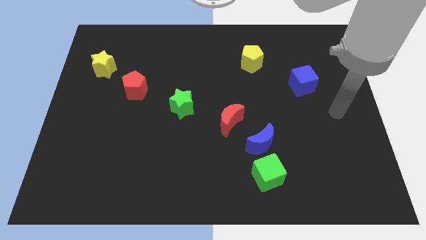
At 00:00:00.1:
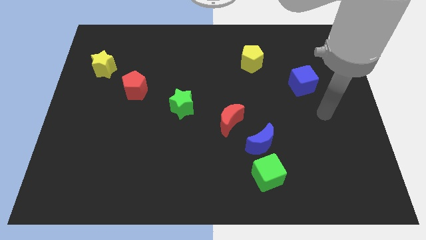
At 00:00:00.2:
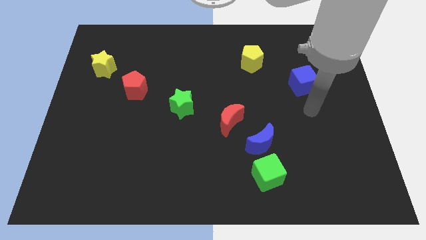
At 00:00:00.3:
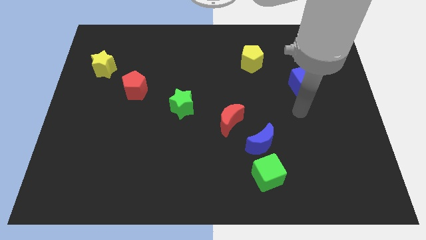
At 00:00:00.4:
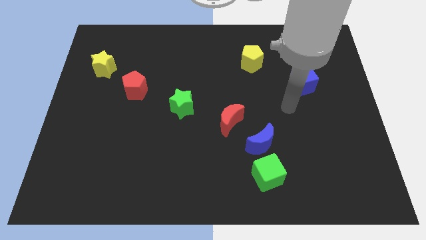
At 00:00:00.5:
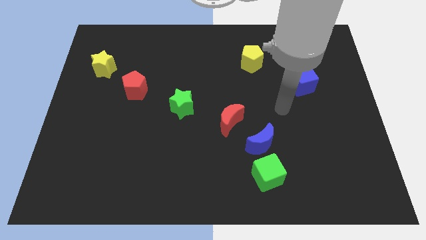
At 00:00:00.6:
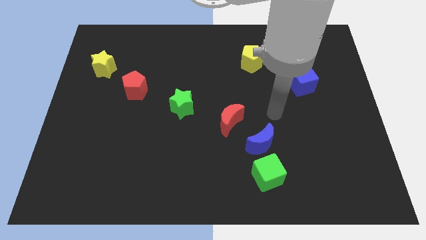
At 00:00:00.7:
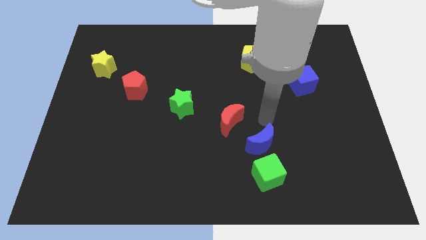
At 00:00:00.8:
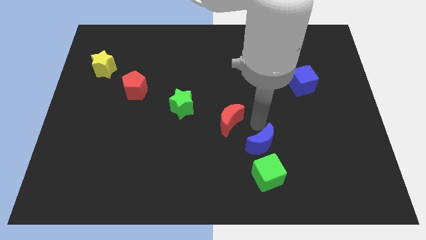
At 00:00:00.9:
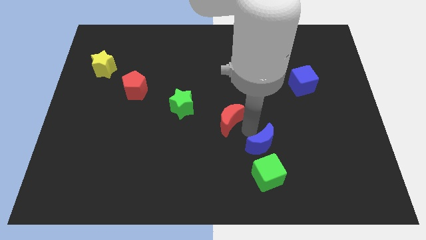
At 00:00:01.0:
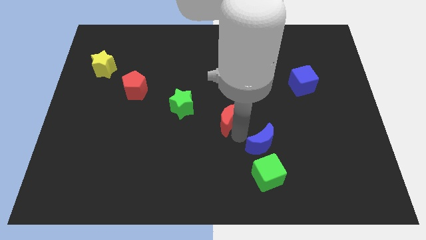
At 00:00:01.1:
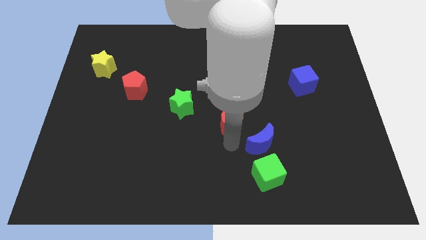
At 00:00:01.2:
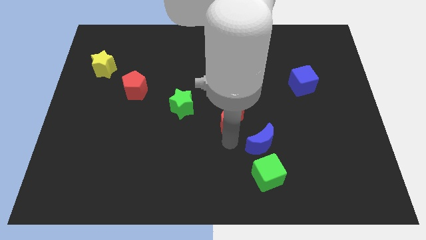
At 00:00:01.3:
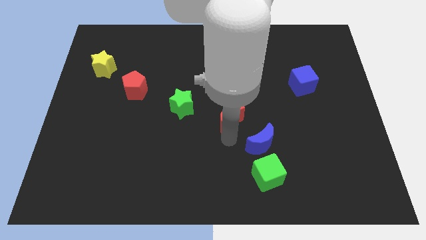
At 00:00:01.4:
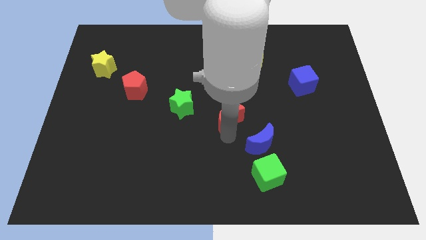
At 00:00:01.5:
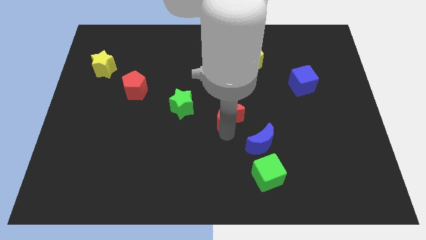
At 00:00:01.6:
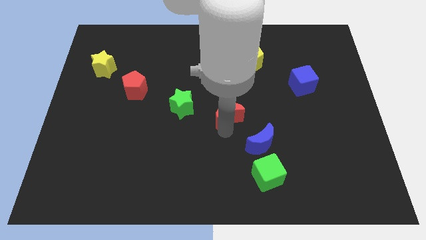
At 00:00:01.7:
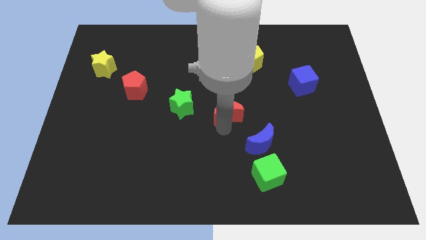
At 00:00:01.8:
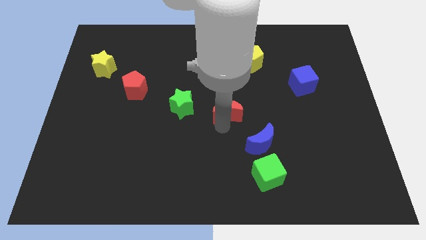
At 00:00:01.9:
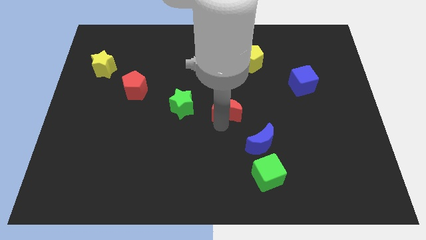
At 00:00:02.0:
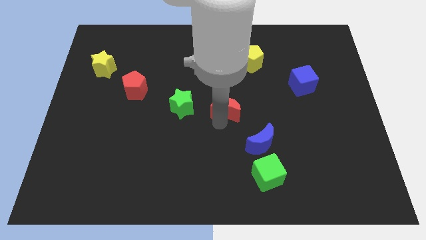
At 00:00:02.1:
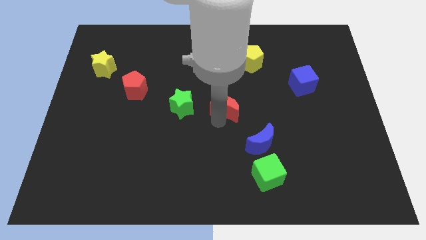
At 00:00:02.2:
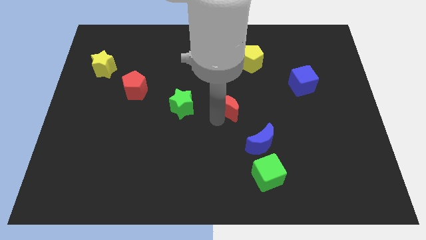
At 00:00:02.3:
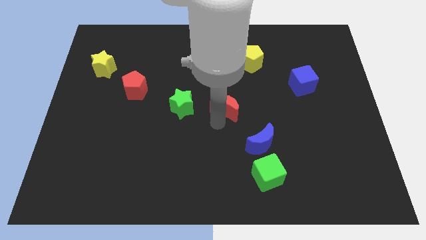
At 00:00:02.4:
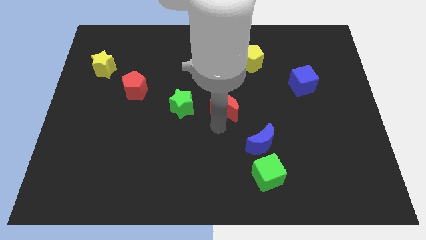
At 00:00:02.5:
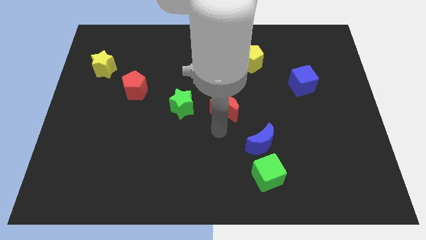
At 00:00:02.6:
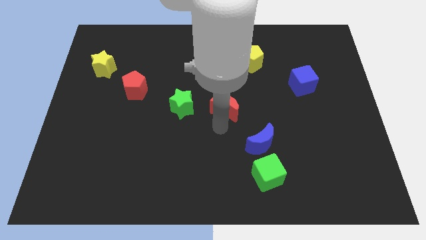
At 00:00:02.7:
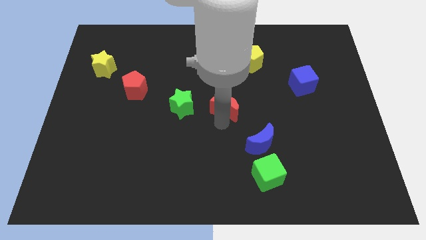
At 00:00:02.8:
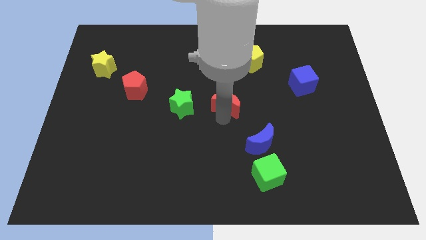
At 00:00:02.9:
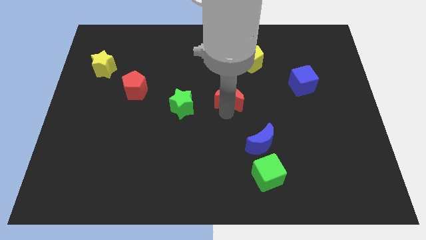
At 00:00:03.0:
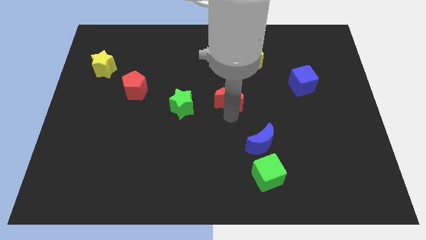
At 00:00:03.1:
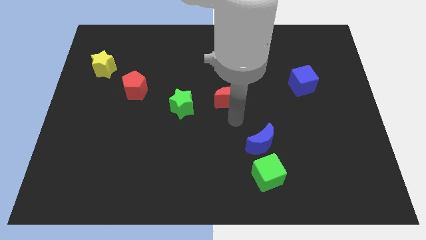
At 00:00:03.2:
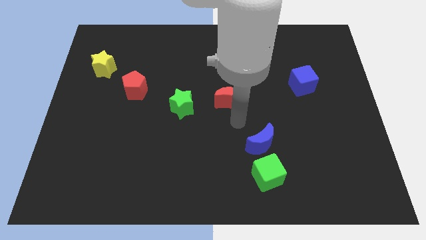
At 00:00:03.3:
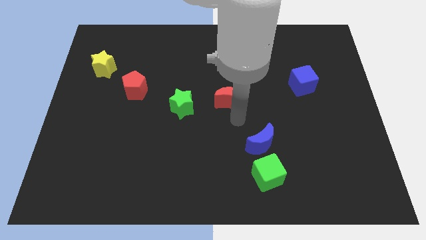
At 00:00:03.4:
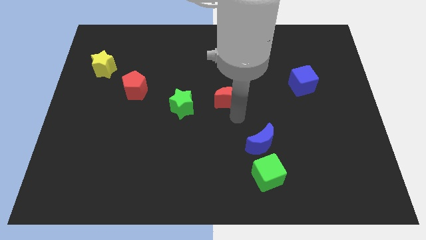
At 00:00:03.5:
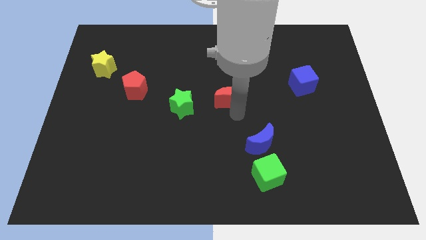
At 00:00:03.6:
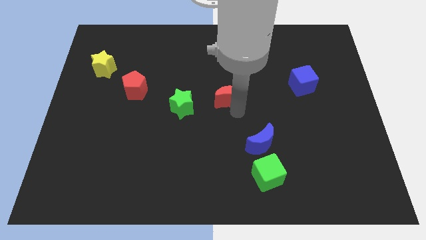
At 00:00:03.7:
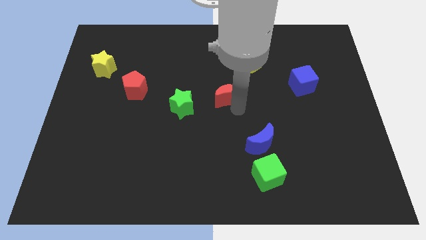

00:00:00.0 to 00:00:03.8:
slide the red moon a bit upwards

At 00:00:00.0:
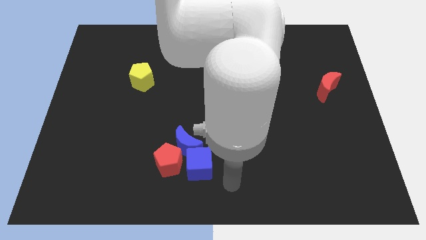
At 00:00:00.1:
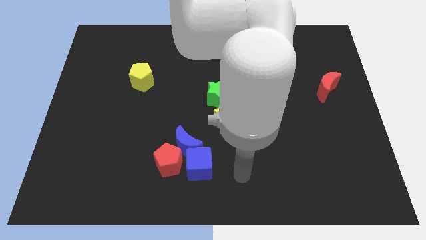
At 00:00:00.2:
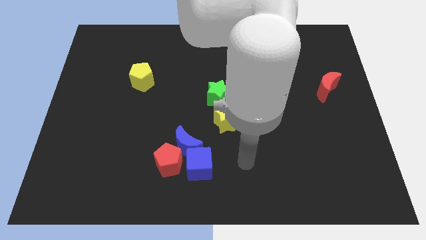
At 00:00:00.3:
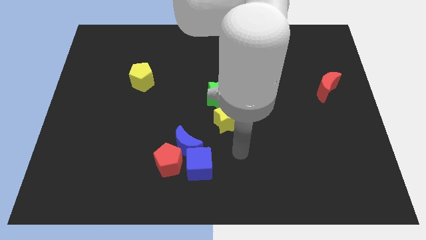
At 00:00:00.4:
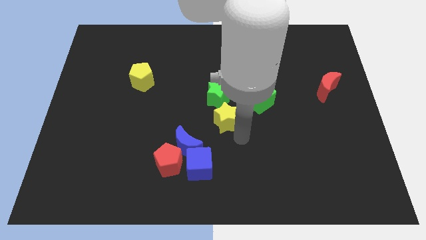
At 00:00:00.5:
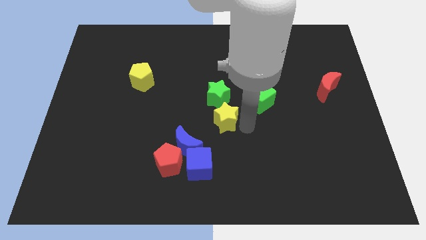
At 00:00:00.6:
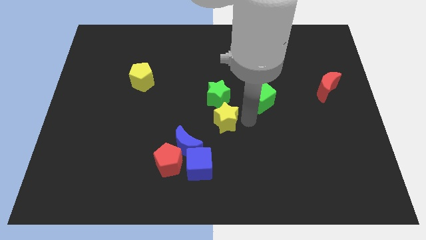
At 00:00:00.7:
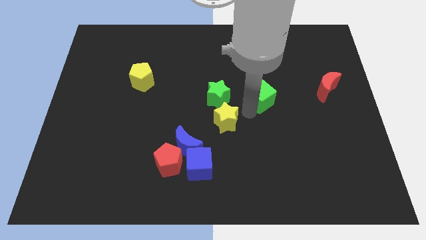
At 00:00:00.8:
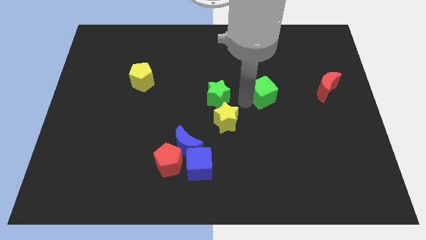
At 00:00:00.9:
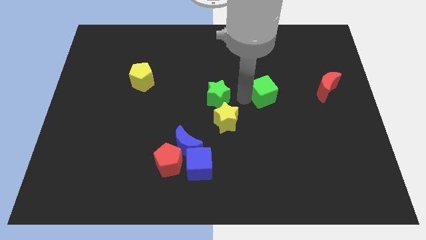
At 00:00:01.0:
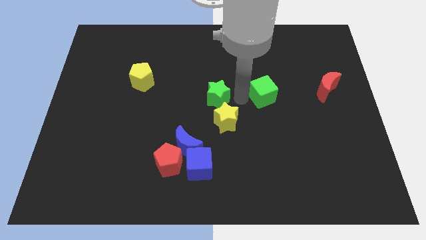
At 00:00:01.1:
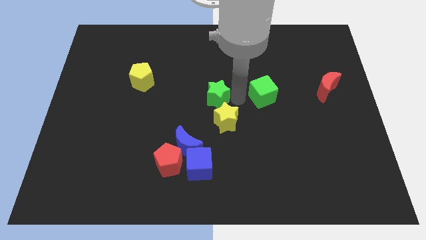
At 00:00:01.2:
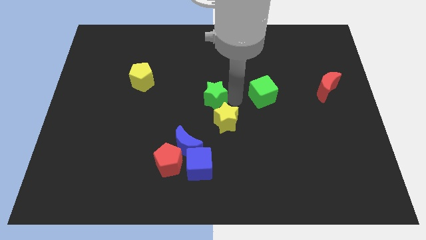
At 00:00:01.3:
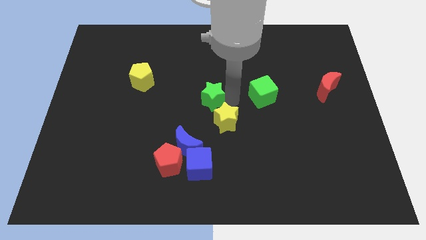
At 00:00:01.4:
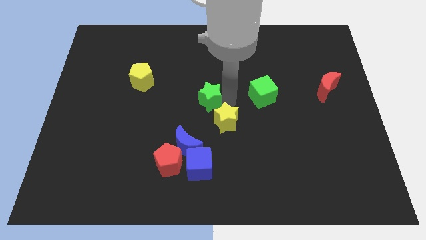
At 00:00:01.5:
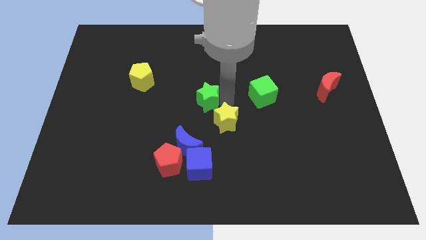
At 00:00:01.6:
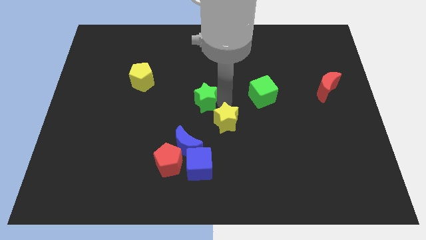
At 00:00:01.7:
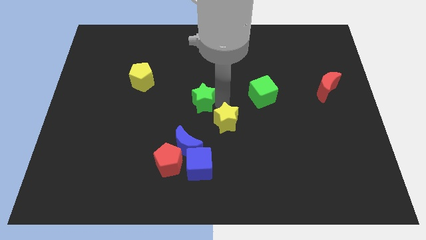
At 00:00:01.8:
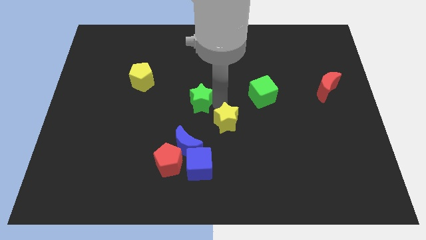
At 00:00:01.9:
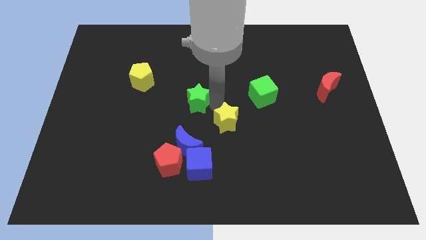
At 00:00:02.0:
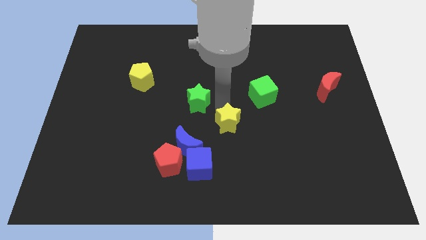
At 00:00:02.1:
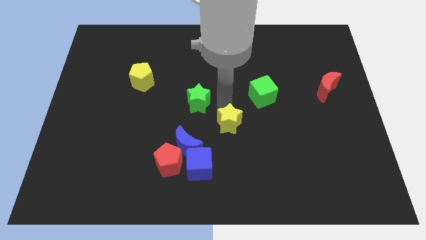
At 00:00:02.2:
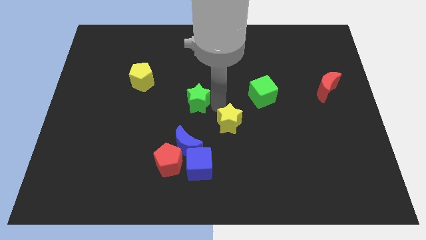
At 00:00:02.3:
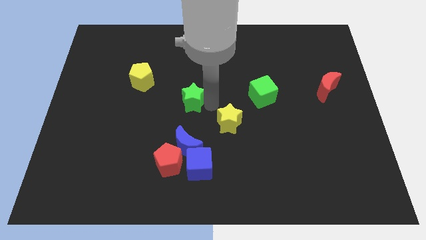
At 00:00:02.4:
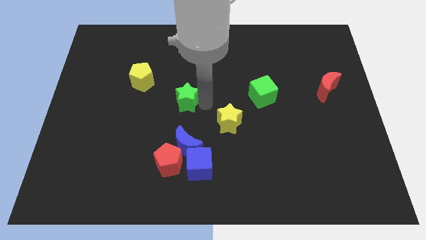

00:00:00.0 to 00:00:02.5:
push the green star left a little bit

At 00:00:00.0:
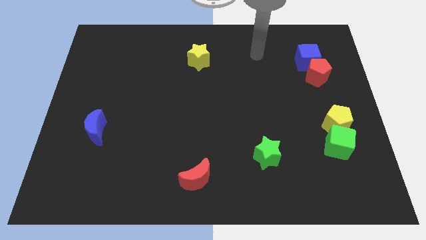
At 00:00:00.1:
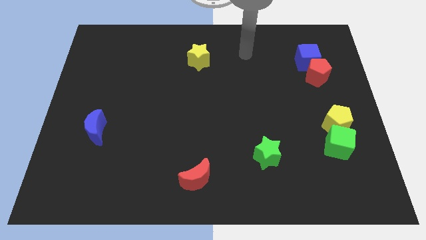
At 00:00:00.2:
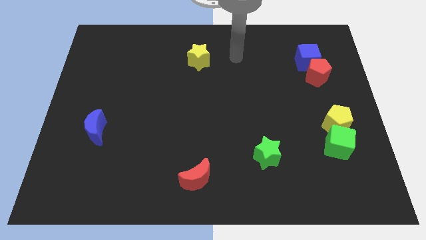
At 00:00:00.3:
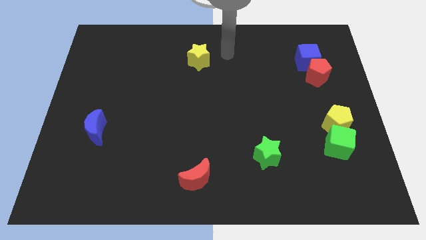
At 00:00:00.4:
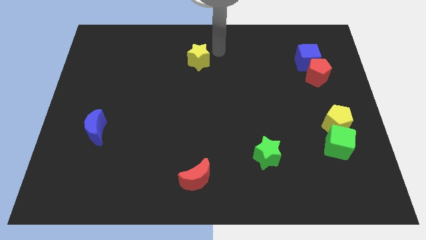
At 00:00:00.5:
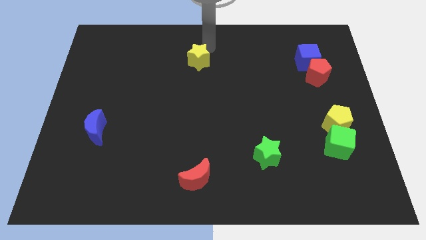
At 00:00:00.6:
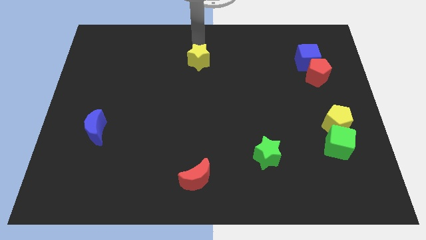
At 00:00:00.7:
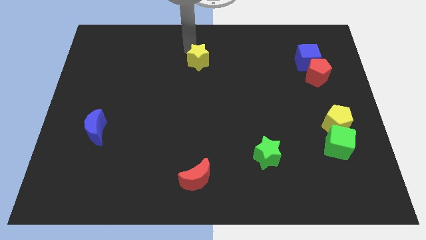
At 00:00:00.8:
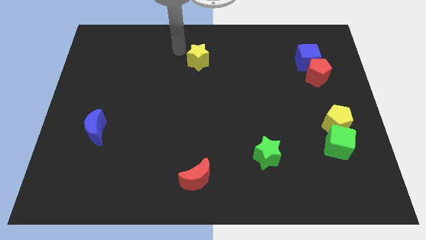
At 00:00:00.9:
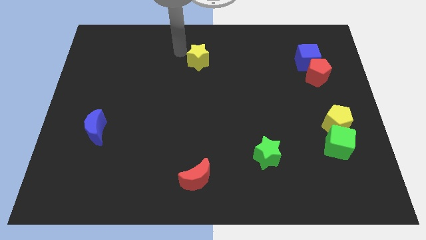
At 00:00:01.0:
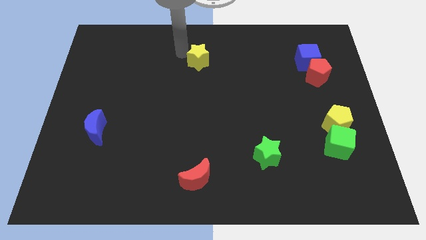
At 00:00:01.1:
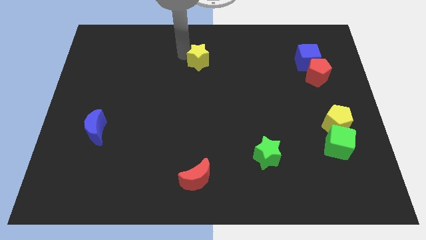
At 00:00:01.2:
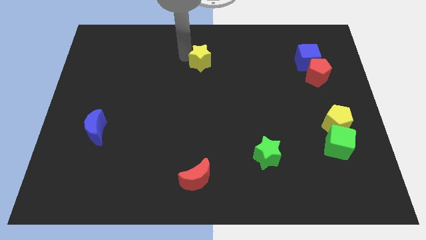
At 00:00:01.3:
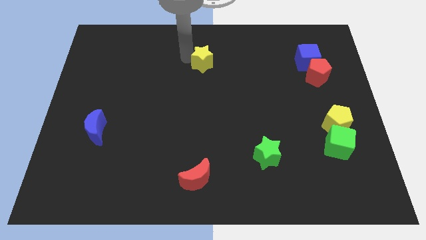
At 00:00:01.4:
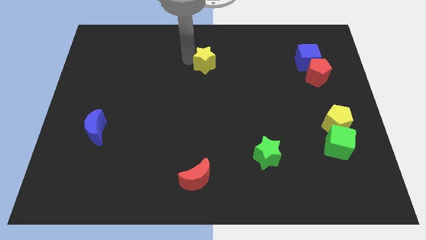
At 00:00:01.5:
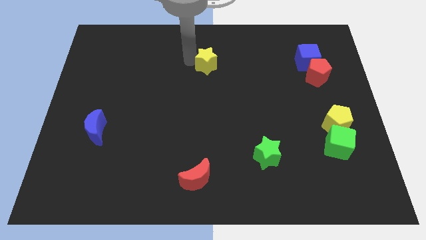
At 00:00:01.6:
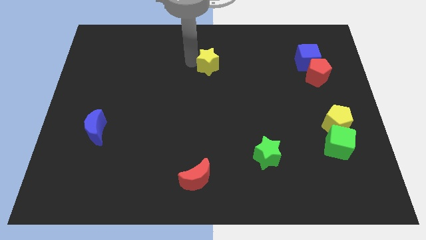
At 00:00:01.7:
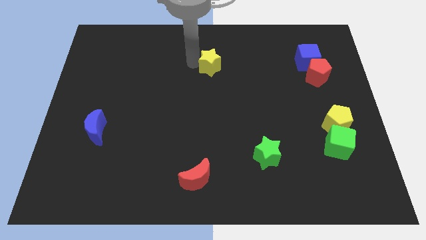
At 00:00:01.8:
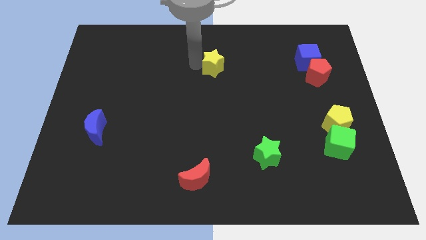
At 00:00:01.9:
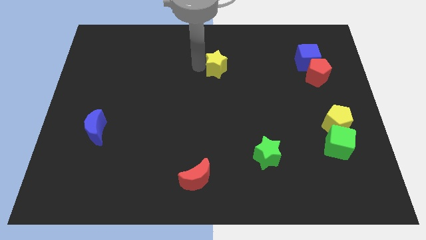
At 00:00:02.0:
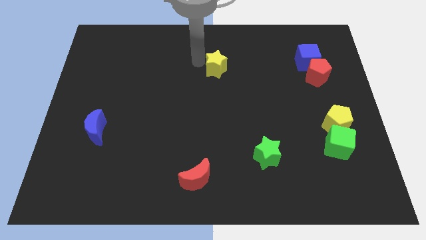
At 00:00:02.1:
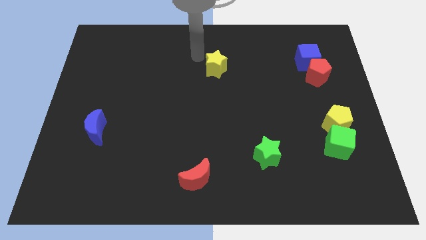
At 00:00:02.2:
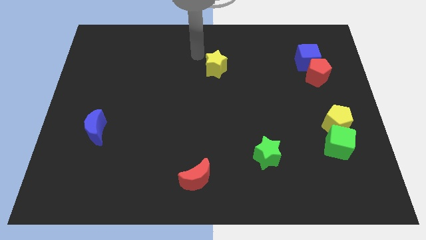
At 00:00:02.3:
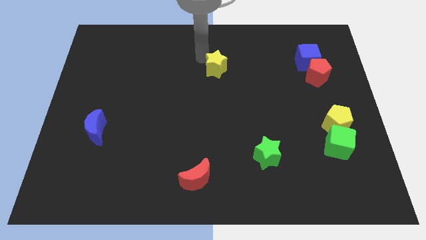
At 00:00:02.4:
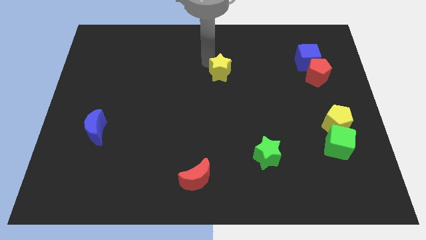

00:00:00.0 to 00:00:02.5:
move the yellow star a little down and to the right
